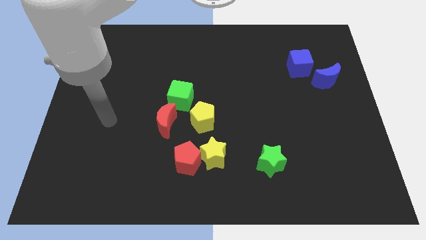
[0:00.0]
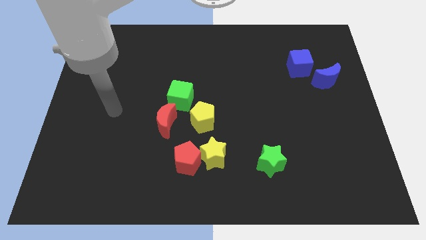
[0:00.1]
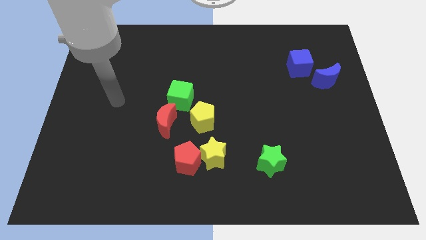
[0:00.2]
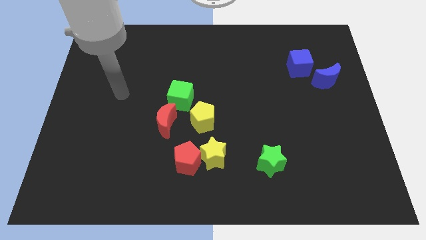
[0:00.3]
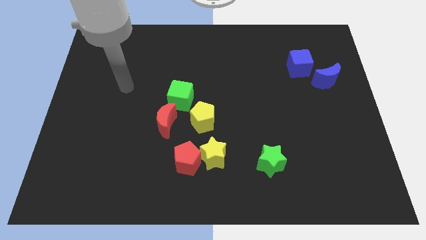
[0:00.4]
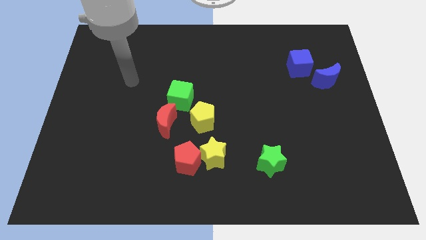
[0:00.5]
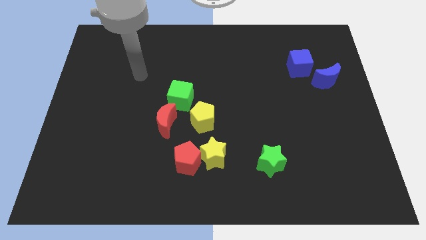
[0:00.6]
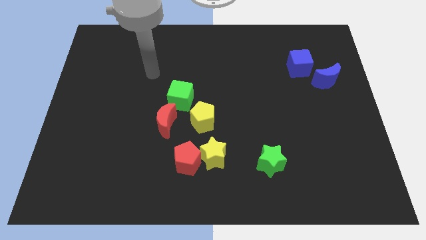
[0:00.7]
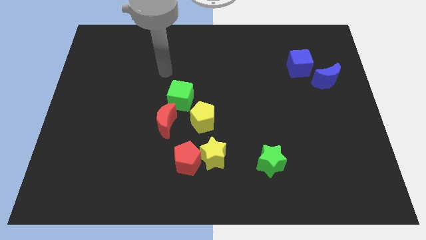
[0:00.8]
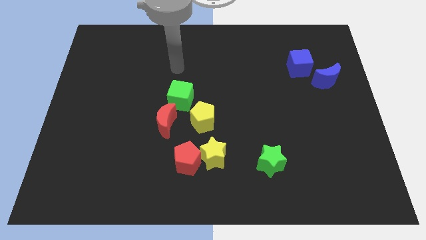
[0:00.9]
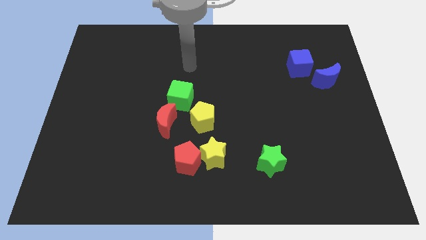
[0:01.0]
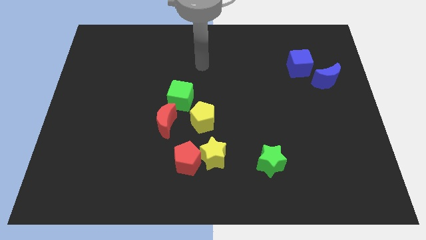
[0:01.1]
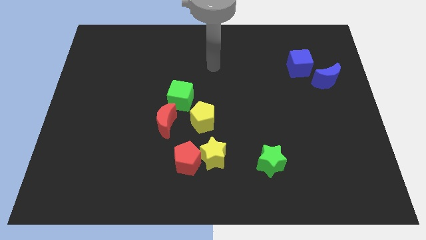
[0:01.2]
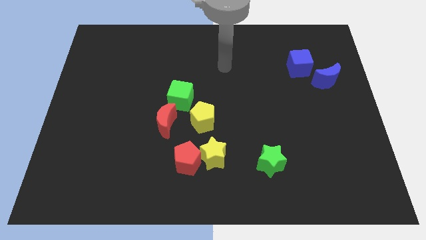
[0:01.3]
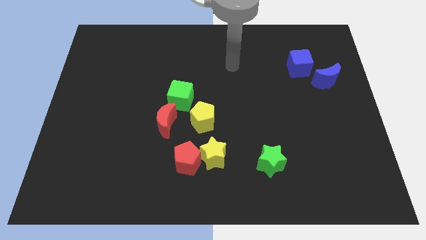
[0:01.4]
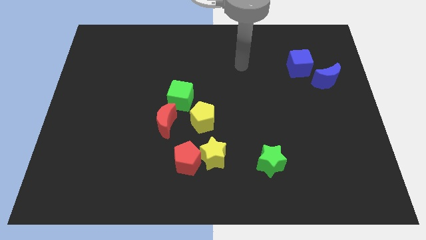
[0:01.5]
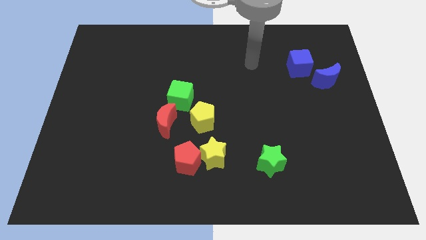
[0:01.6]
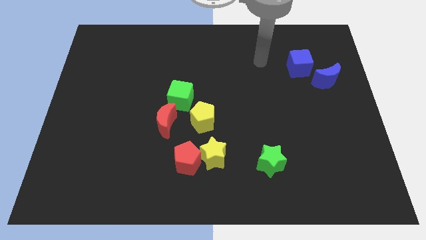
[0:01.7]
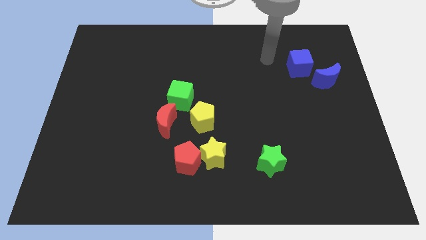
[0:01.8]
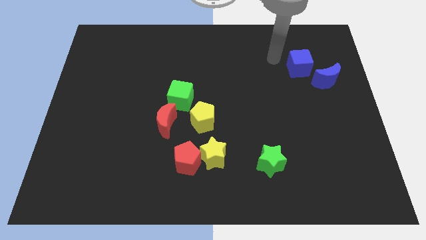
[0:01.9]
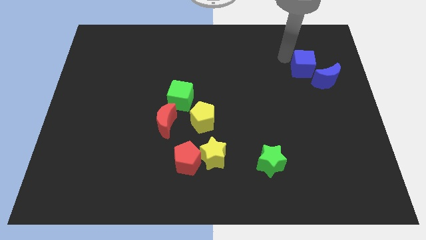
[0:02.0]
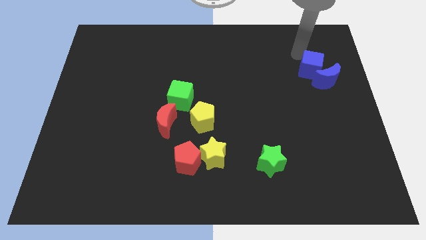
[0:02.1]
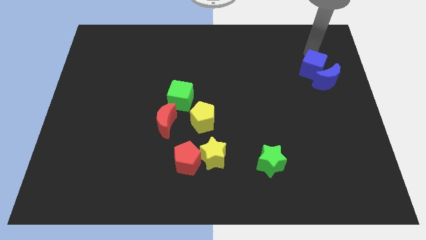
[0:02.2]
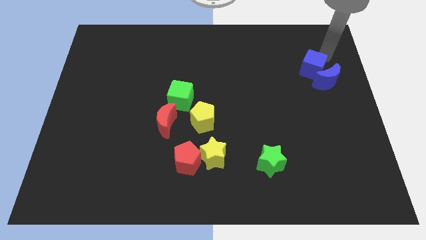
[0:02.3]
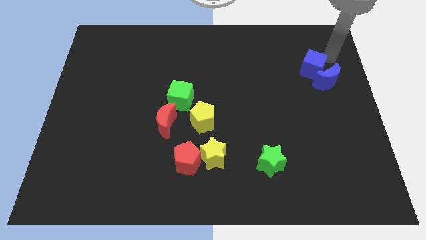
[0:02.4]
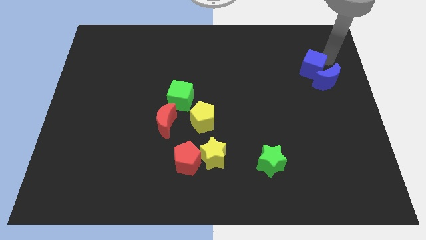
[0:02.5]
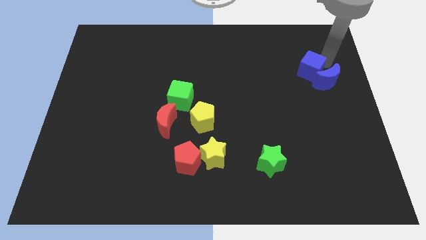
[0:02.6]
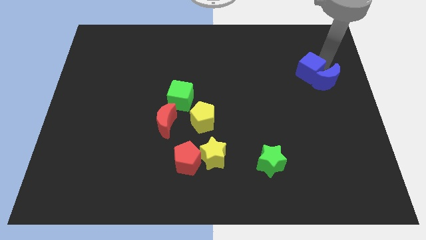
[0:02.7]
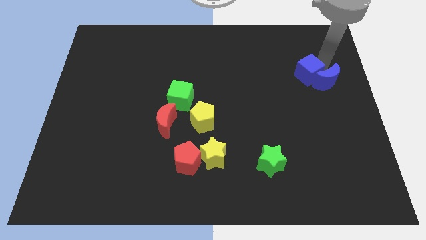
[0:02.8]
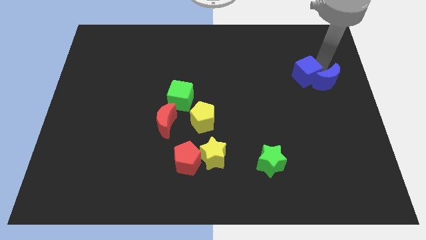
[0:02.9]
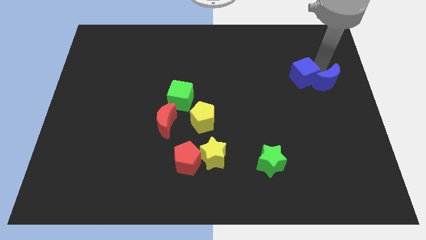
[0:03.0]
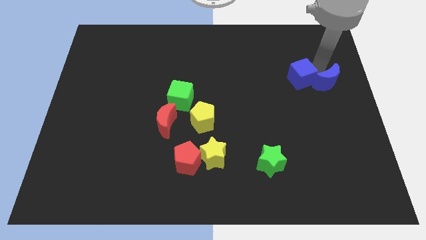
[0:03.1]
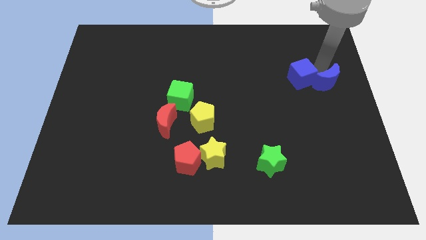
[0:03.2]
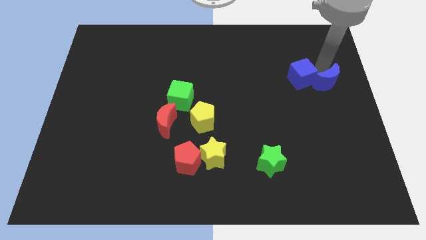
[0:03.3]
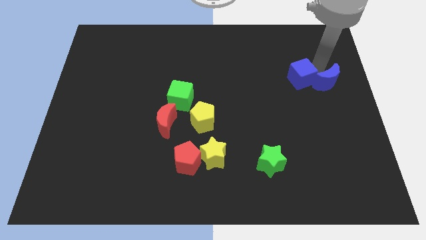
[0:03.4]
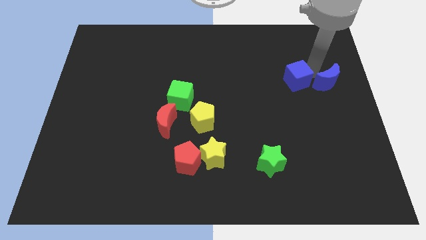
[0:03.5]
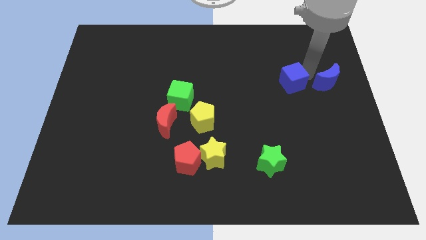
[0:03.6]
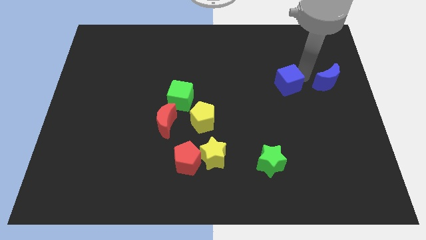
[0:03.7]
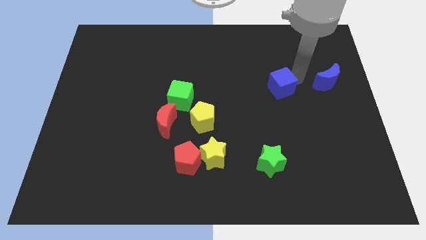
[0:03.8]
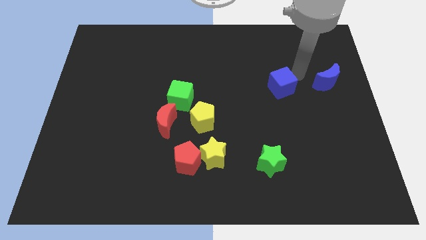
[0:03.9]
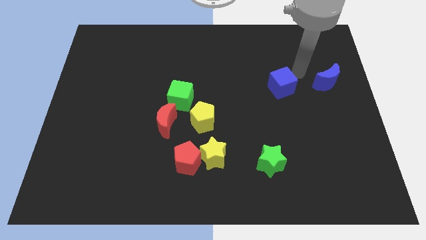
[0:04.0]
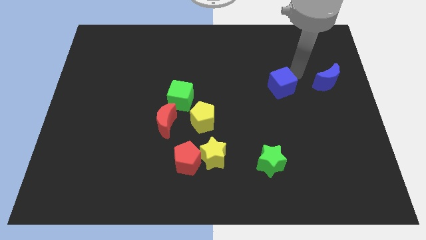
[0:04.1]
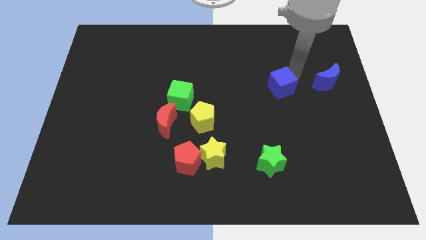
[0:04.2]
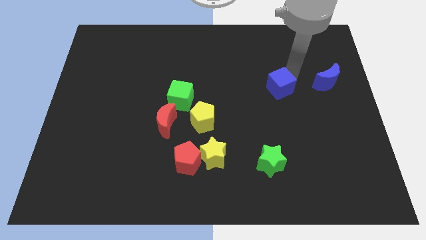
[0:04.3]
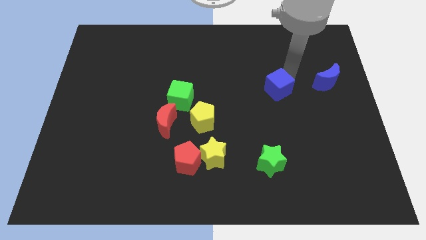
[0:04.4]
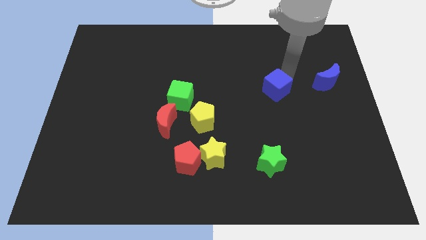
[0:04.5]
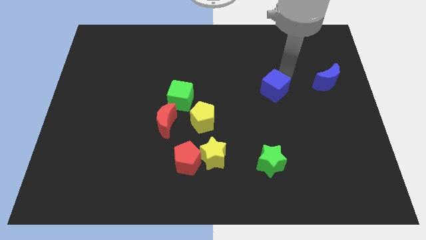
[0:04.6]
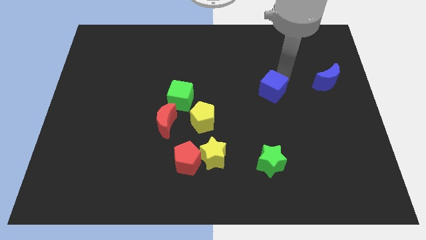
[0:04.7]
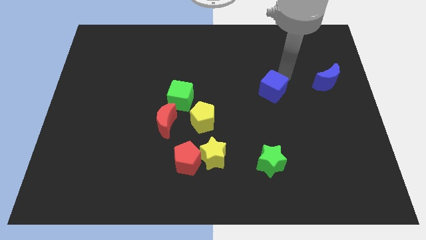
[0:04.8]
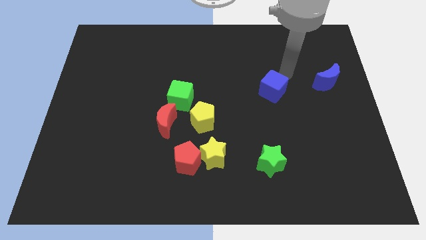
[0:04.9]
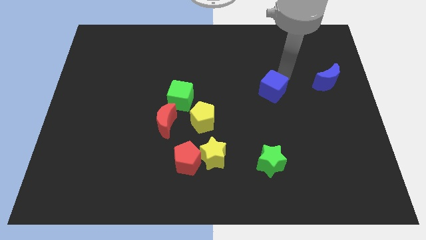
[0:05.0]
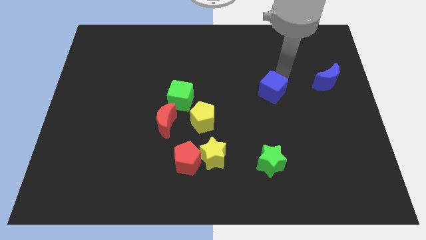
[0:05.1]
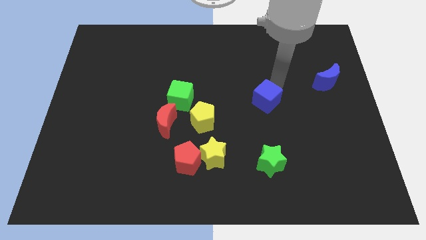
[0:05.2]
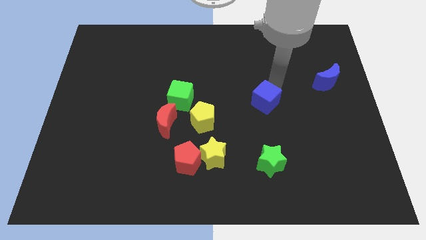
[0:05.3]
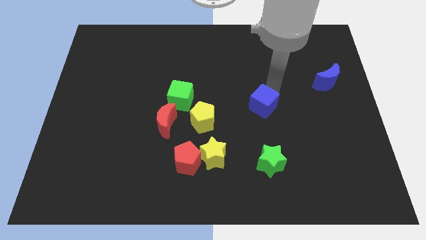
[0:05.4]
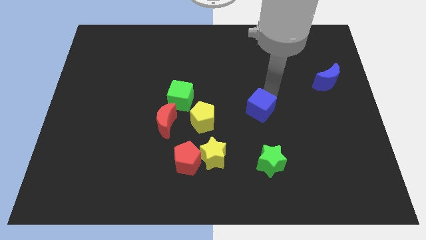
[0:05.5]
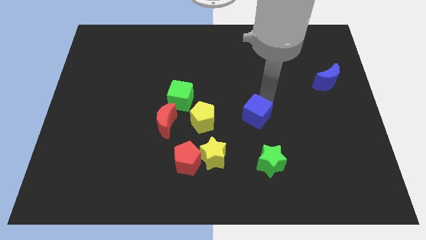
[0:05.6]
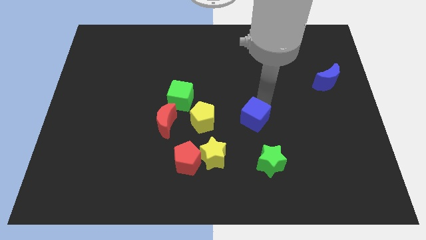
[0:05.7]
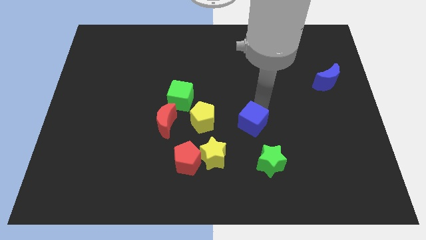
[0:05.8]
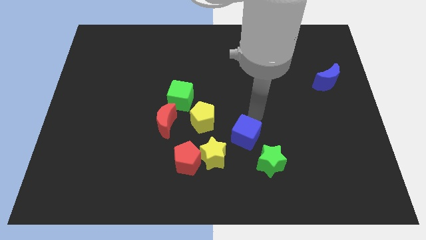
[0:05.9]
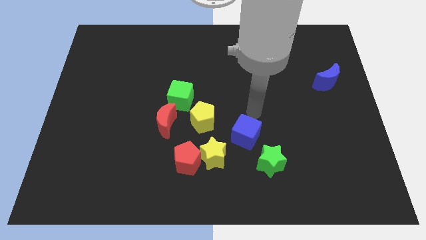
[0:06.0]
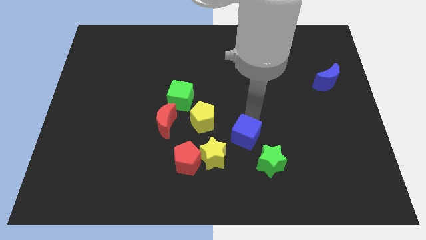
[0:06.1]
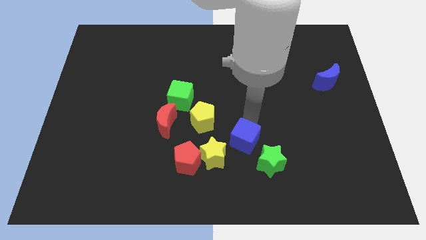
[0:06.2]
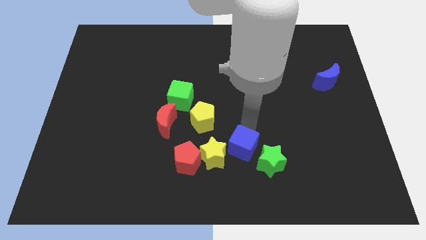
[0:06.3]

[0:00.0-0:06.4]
move the blue cube to the right side of the red pentagon

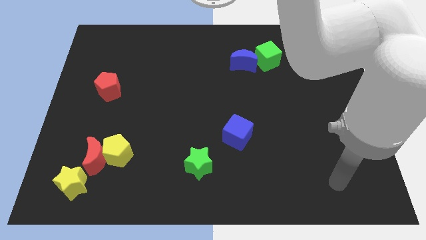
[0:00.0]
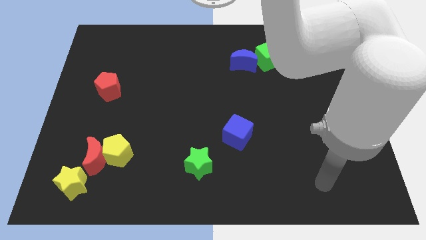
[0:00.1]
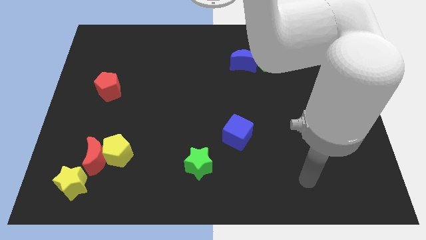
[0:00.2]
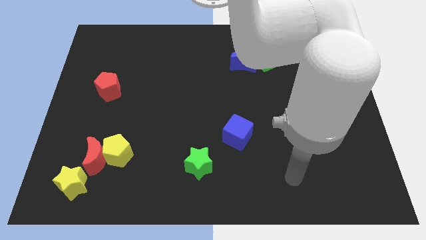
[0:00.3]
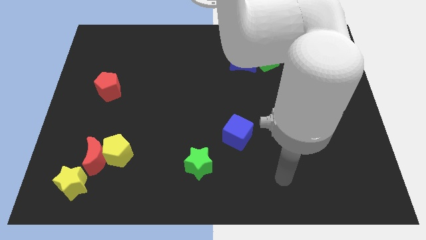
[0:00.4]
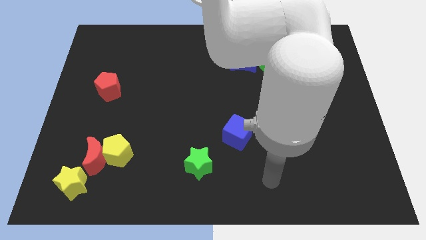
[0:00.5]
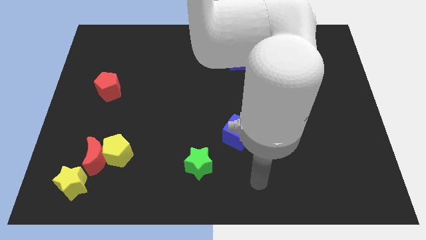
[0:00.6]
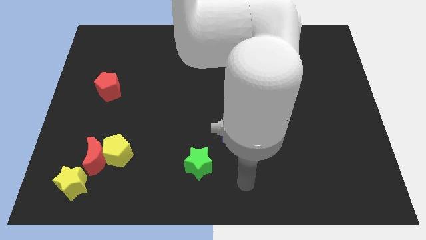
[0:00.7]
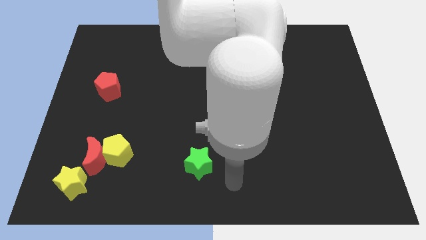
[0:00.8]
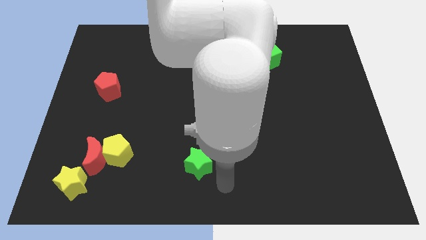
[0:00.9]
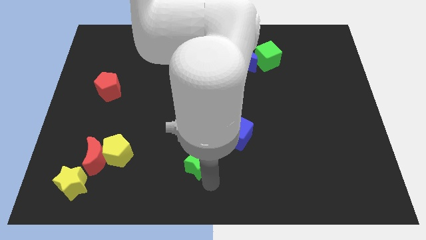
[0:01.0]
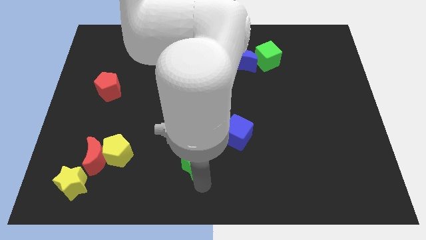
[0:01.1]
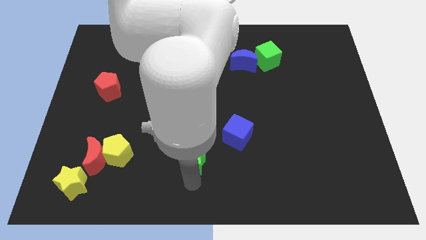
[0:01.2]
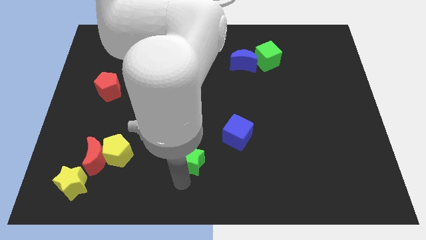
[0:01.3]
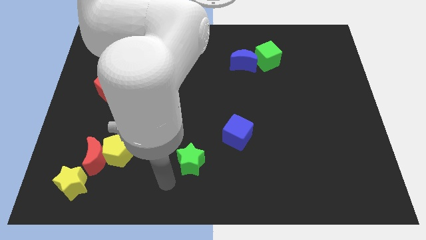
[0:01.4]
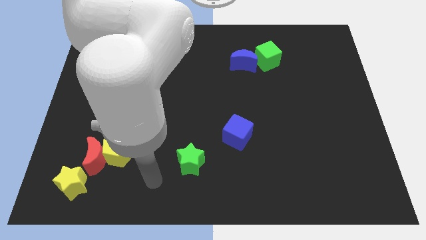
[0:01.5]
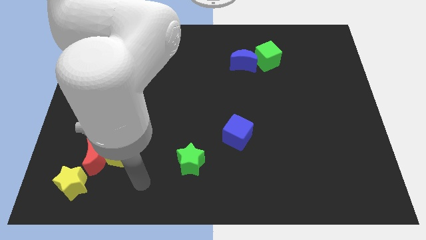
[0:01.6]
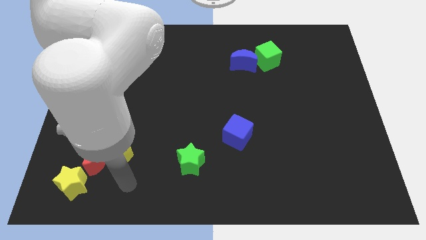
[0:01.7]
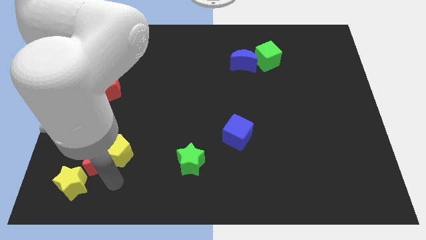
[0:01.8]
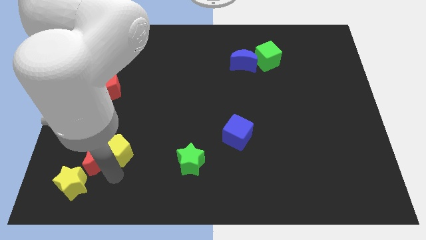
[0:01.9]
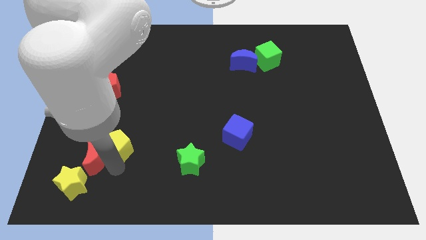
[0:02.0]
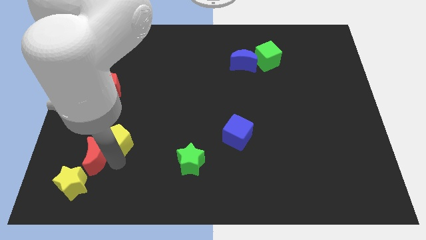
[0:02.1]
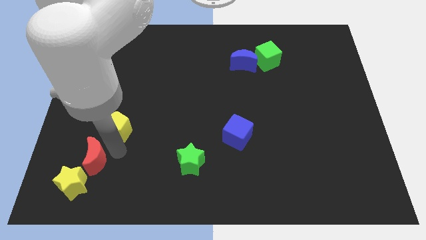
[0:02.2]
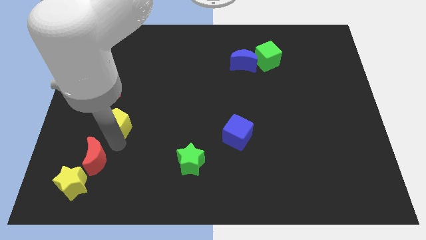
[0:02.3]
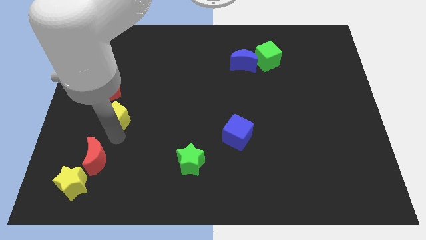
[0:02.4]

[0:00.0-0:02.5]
put the yellow pentagon diagonally down and to the right of the red pentagon
